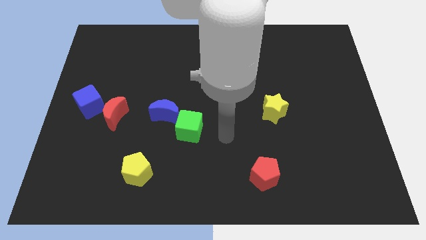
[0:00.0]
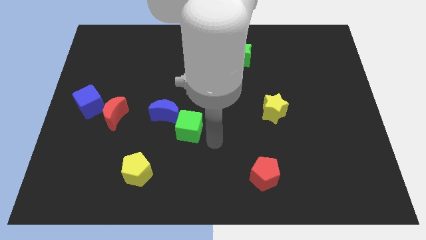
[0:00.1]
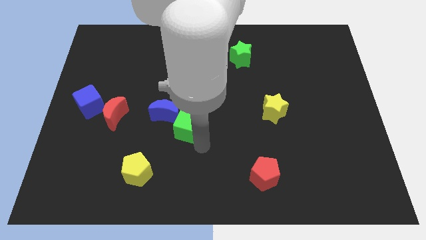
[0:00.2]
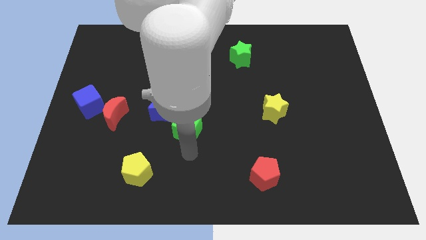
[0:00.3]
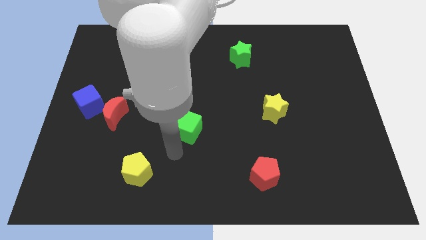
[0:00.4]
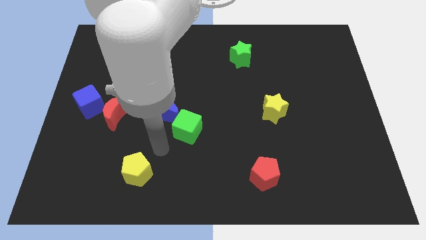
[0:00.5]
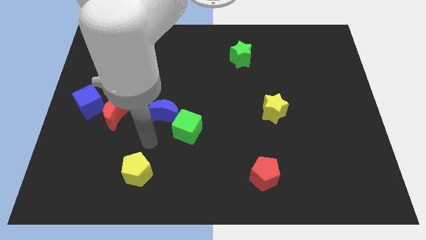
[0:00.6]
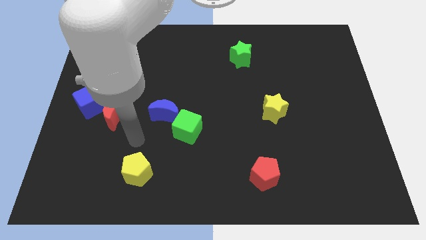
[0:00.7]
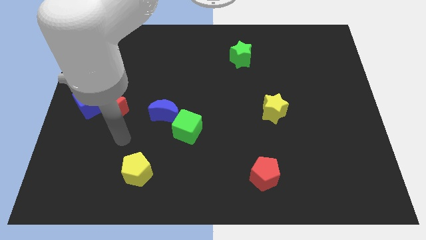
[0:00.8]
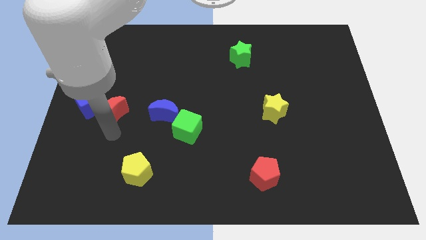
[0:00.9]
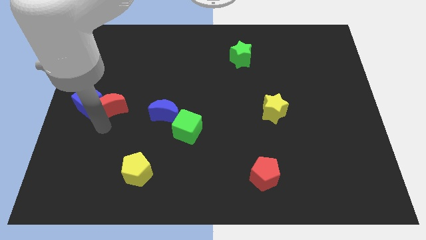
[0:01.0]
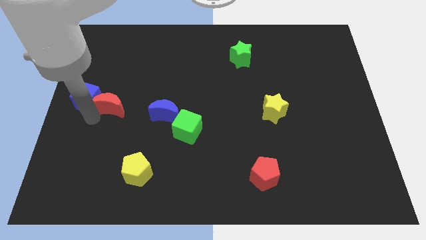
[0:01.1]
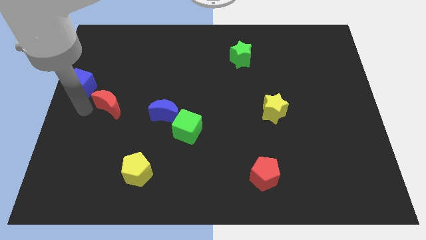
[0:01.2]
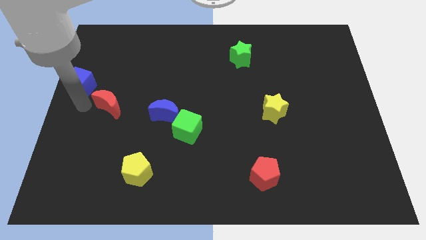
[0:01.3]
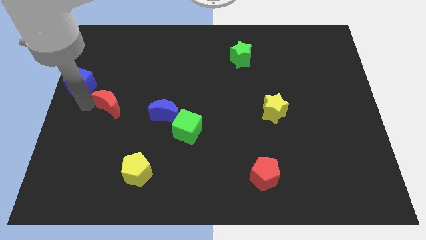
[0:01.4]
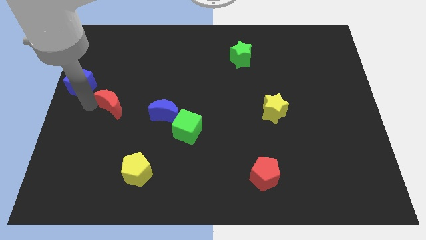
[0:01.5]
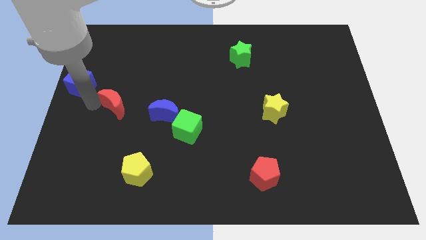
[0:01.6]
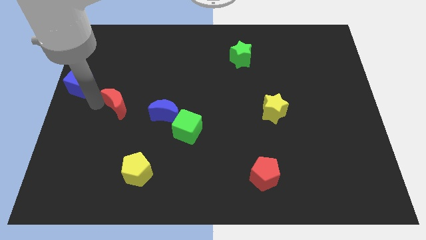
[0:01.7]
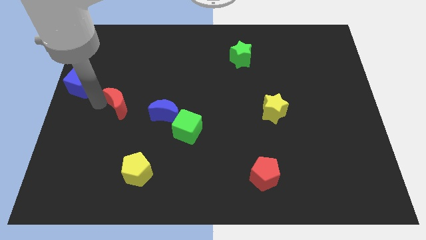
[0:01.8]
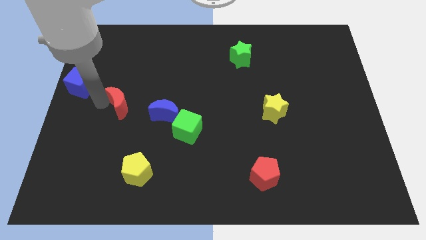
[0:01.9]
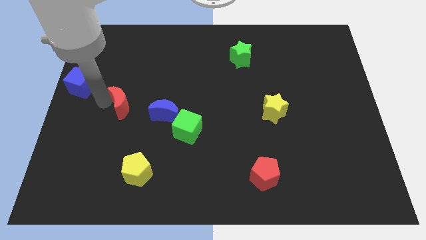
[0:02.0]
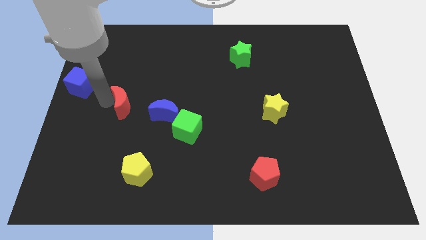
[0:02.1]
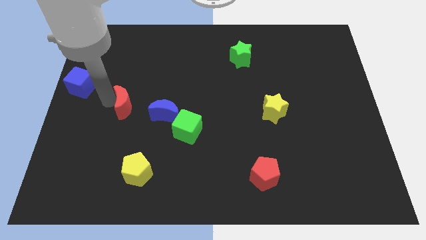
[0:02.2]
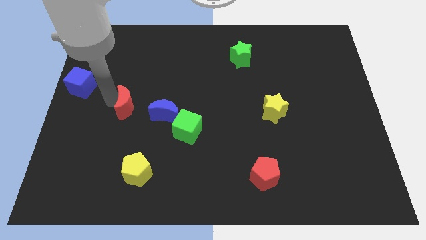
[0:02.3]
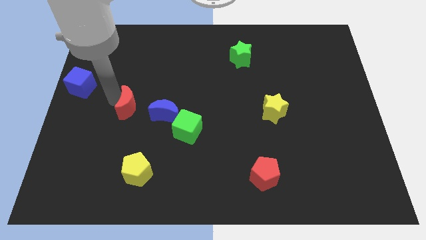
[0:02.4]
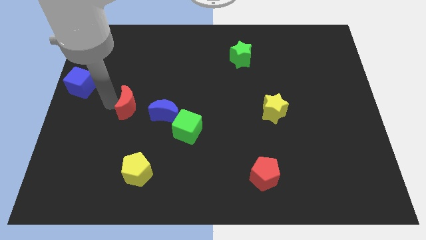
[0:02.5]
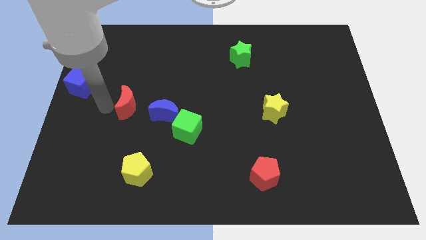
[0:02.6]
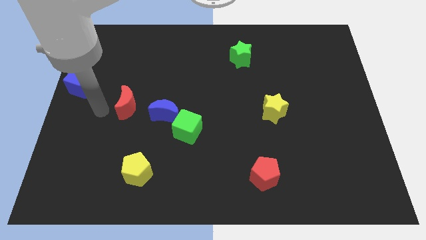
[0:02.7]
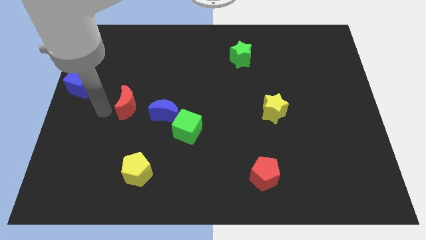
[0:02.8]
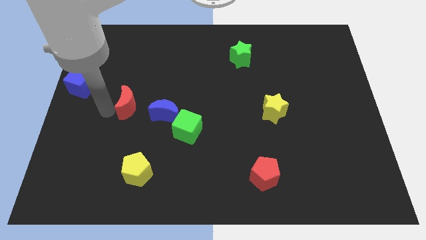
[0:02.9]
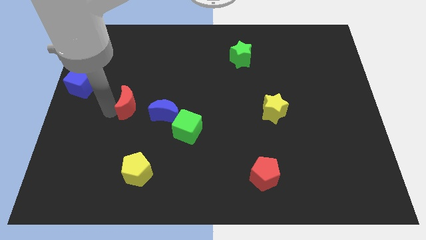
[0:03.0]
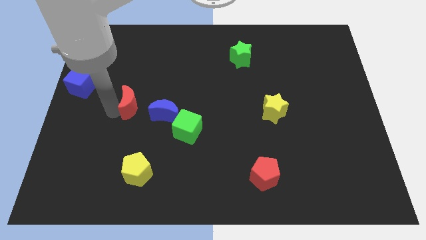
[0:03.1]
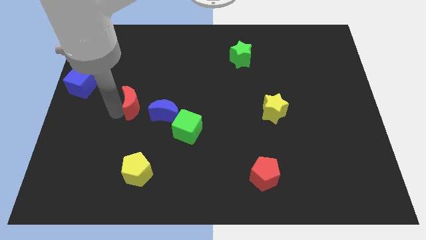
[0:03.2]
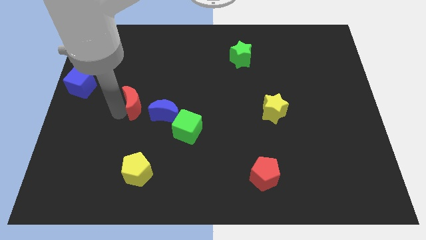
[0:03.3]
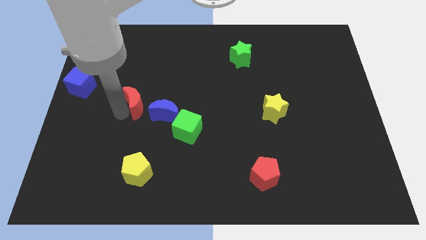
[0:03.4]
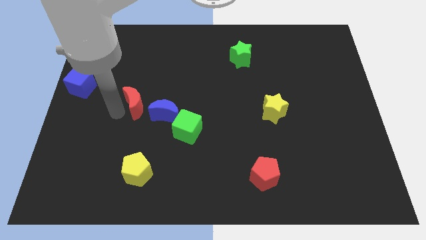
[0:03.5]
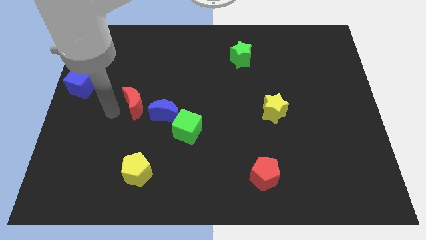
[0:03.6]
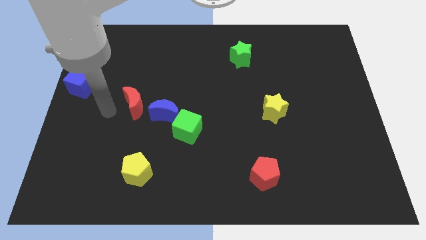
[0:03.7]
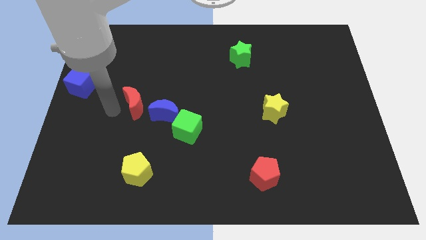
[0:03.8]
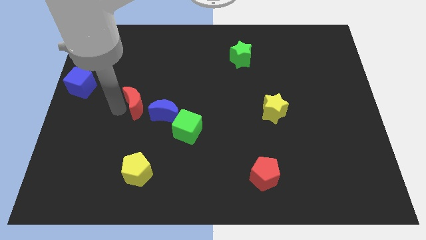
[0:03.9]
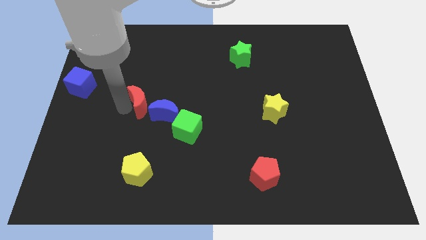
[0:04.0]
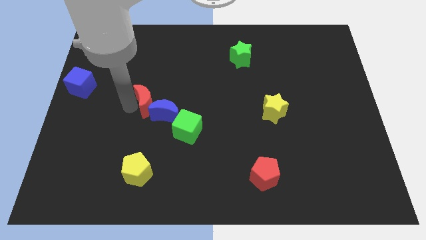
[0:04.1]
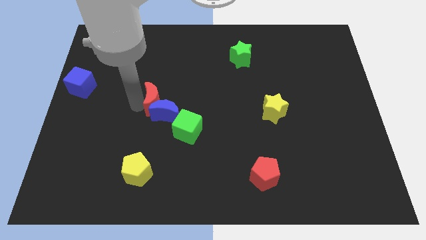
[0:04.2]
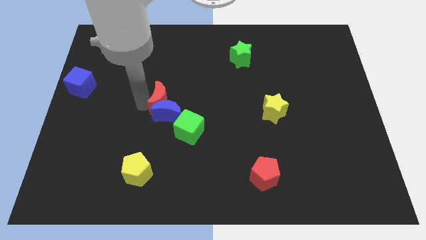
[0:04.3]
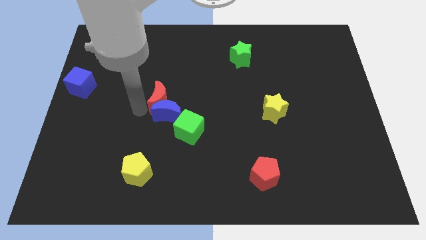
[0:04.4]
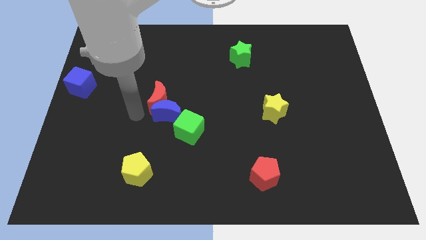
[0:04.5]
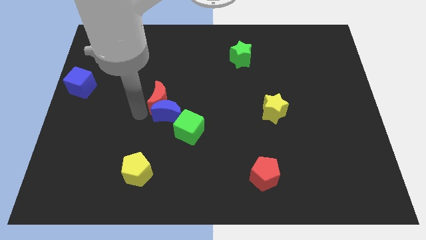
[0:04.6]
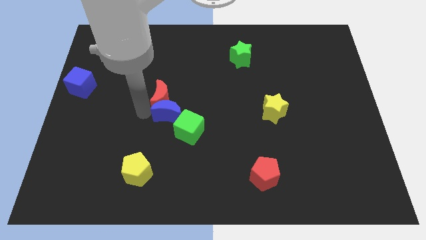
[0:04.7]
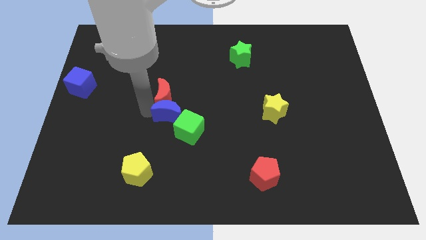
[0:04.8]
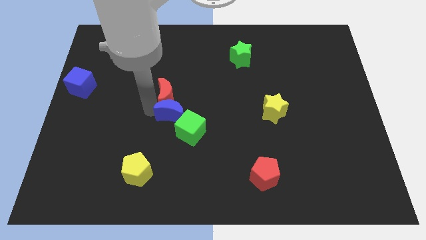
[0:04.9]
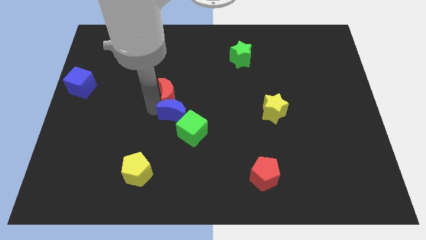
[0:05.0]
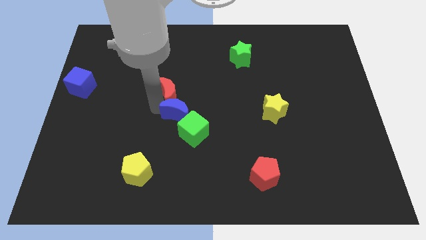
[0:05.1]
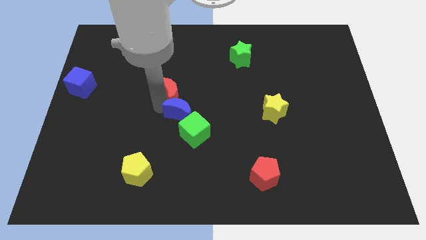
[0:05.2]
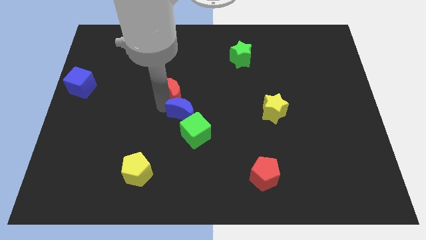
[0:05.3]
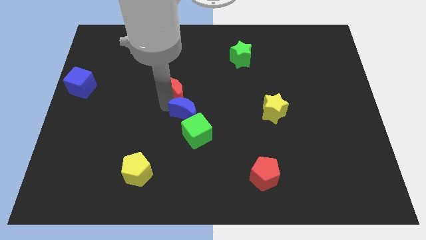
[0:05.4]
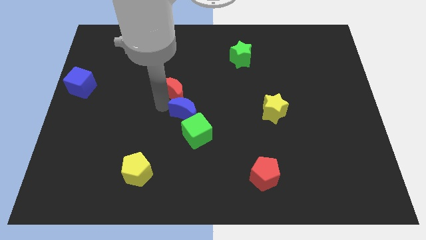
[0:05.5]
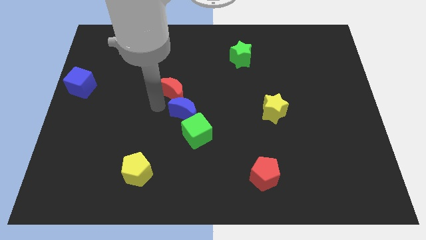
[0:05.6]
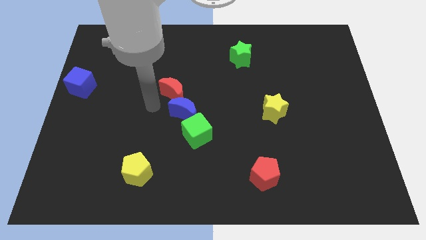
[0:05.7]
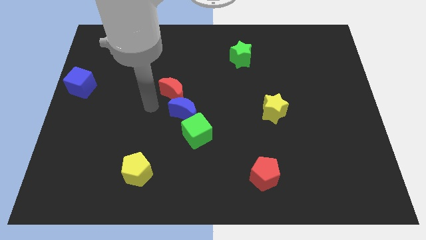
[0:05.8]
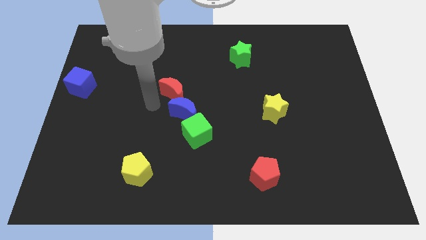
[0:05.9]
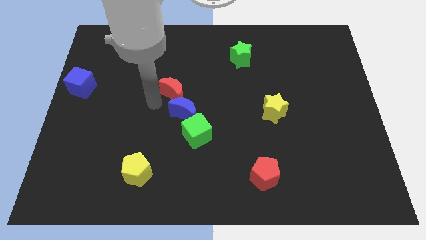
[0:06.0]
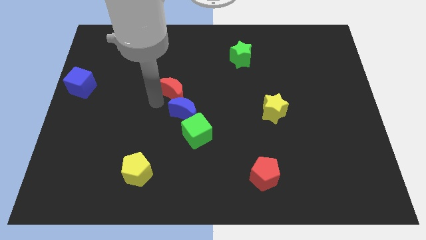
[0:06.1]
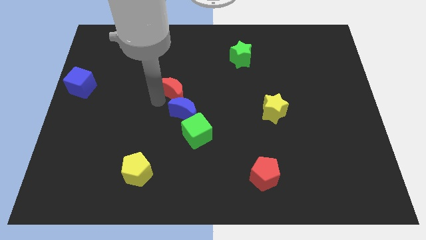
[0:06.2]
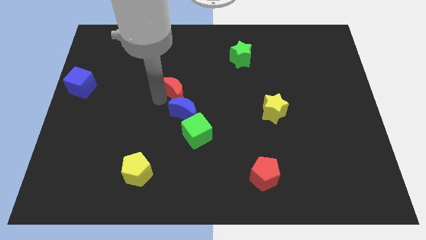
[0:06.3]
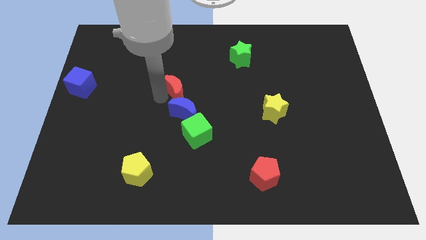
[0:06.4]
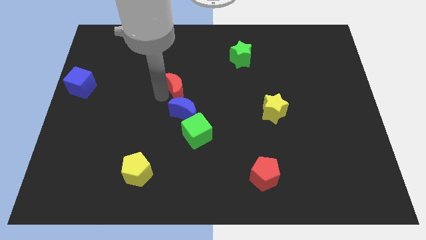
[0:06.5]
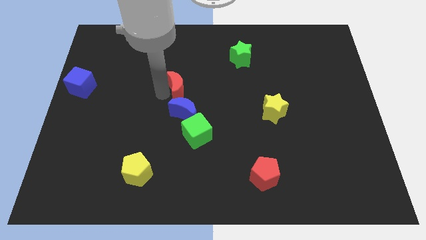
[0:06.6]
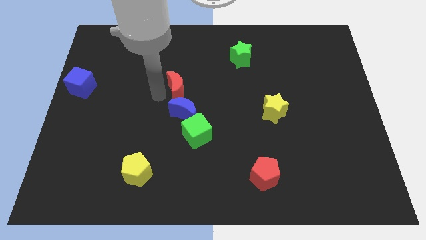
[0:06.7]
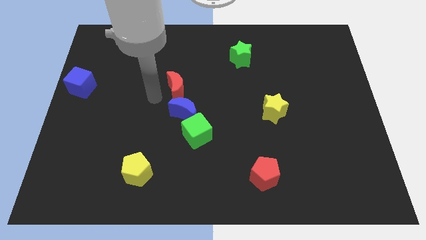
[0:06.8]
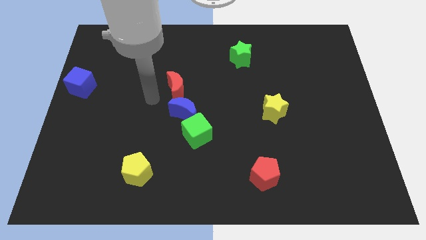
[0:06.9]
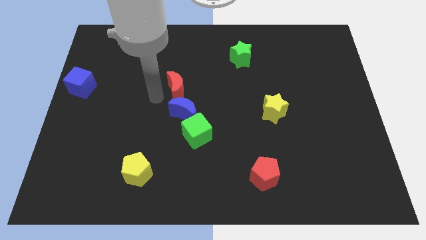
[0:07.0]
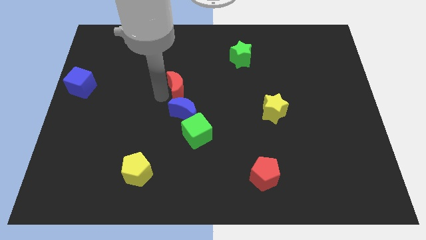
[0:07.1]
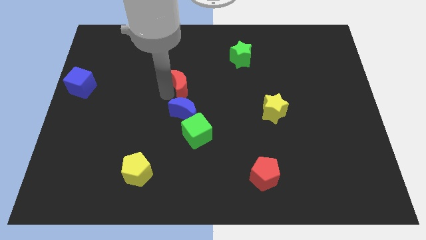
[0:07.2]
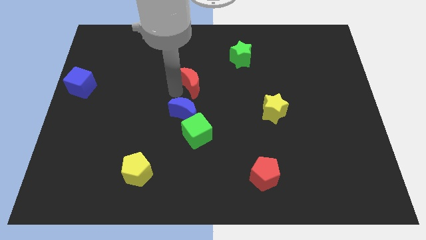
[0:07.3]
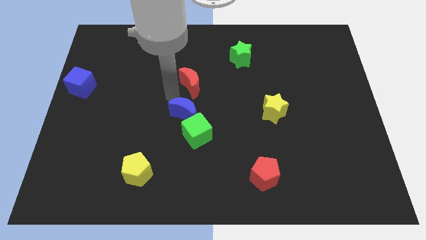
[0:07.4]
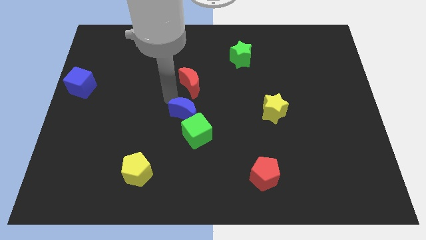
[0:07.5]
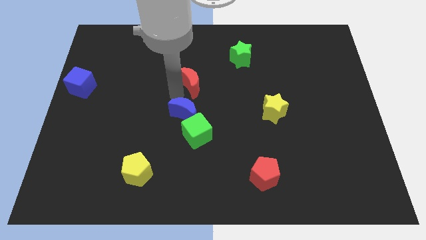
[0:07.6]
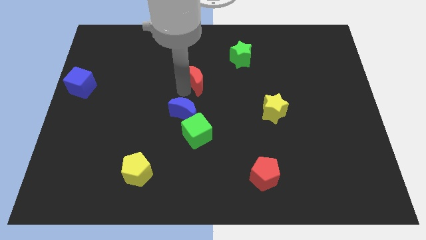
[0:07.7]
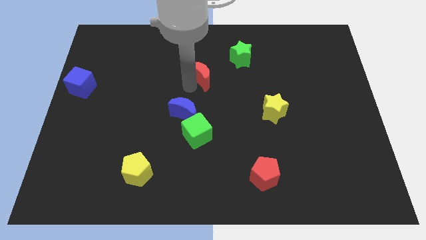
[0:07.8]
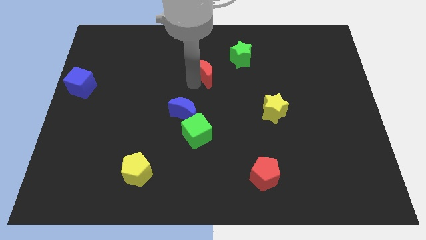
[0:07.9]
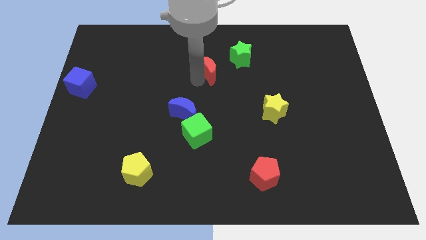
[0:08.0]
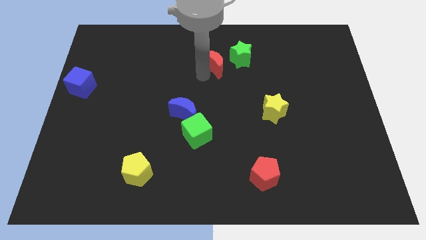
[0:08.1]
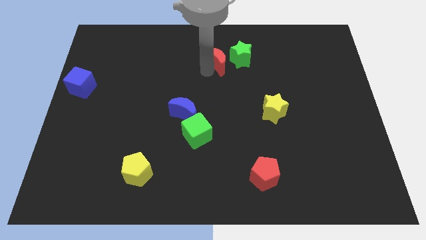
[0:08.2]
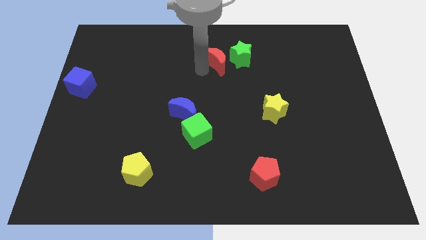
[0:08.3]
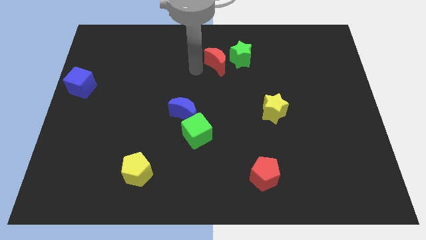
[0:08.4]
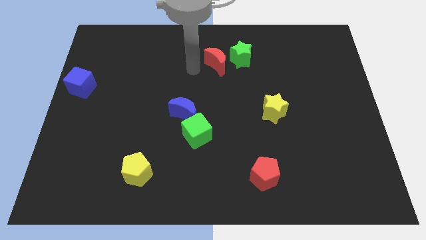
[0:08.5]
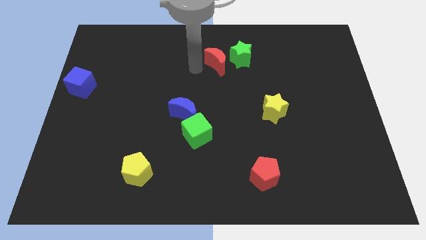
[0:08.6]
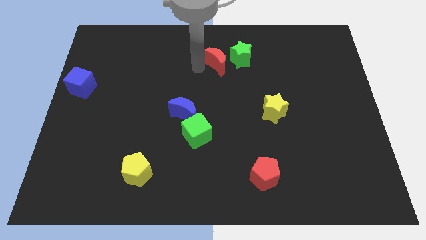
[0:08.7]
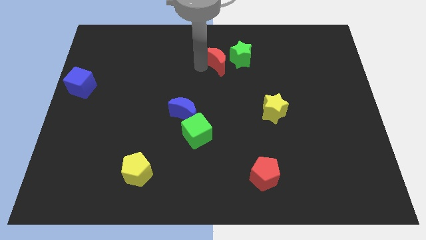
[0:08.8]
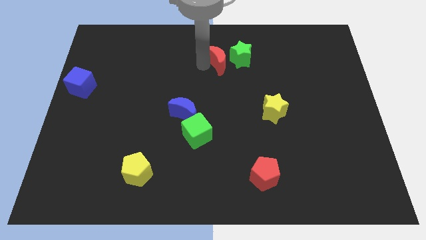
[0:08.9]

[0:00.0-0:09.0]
push the red moon to the green star
